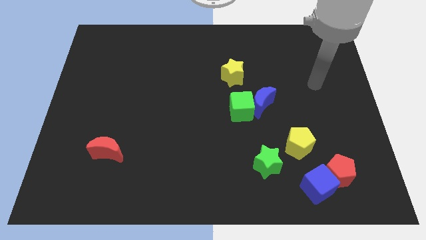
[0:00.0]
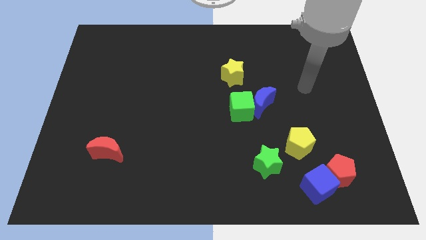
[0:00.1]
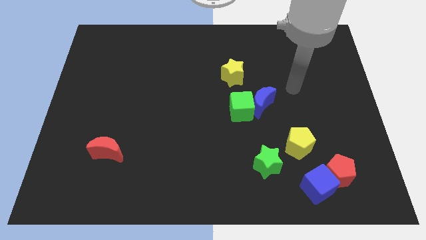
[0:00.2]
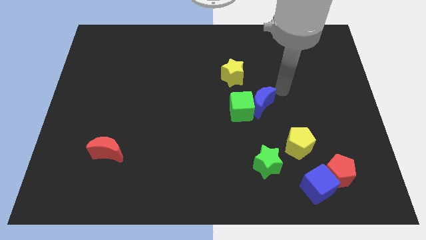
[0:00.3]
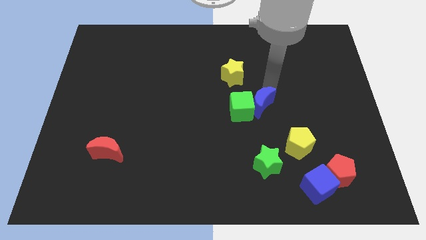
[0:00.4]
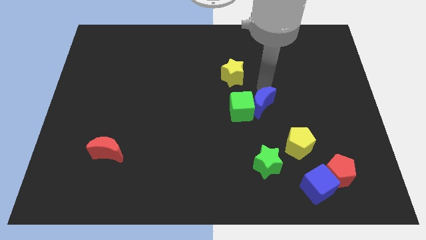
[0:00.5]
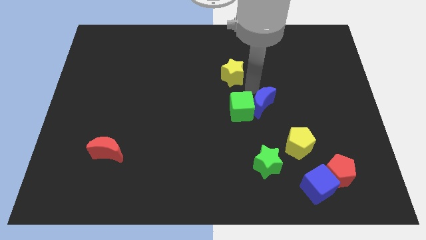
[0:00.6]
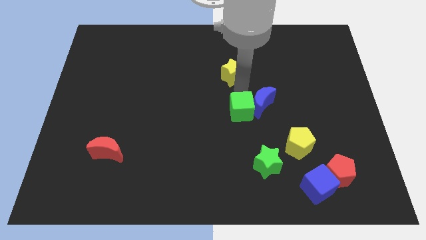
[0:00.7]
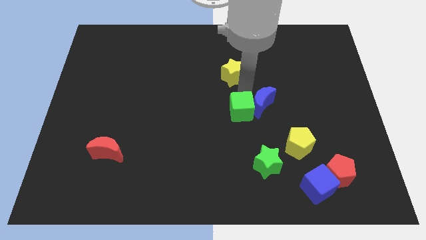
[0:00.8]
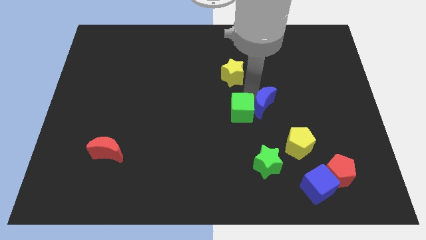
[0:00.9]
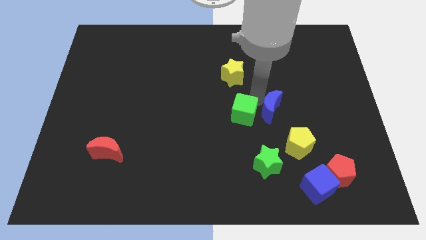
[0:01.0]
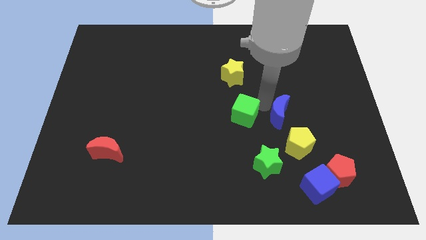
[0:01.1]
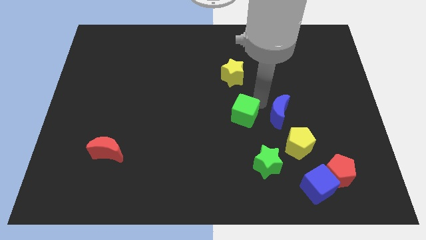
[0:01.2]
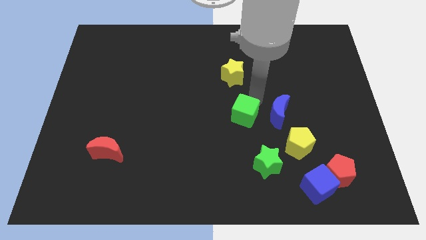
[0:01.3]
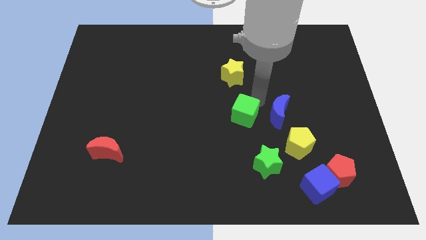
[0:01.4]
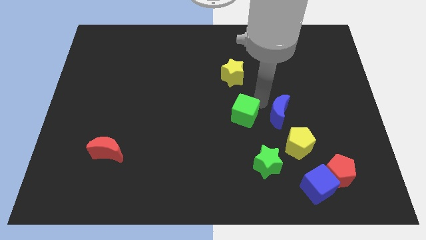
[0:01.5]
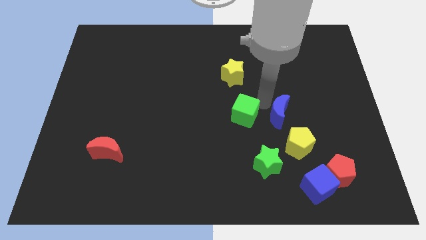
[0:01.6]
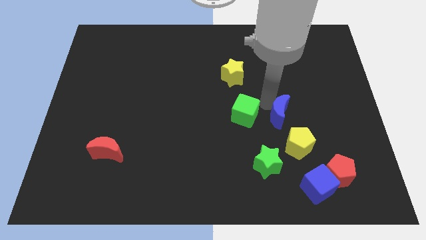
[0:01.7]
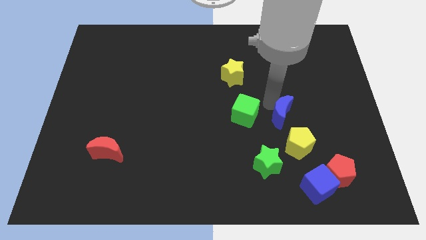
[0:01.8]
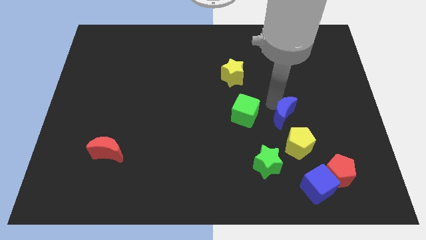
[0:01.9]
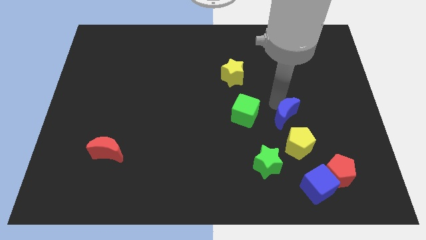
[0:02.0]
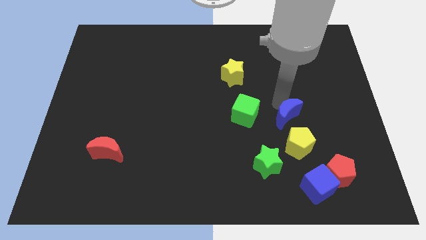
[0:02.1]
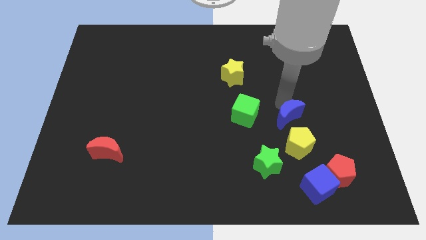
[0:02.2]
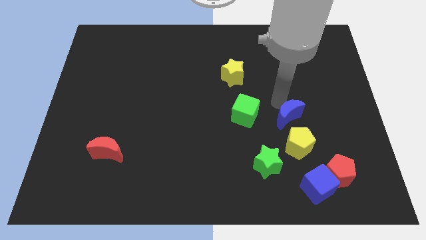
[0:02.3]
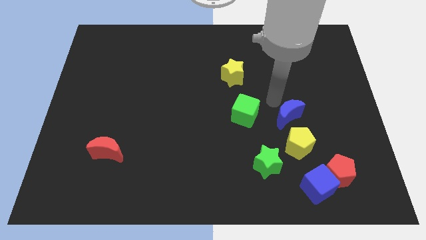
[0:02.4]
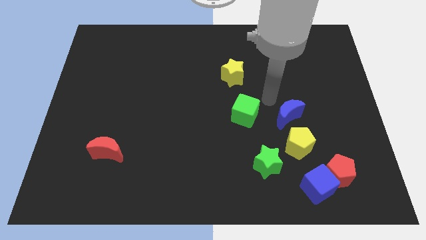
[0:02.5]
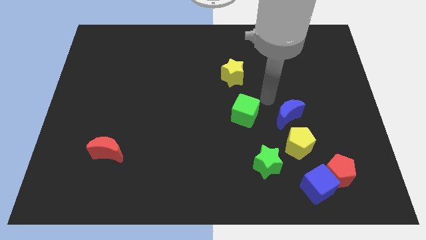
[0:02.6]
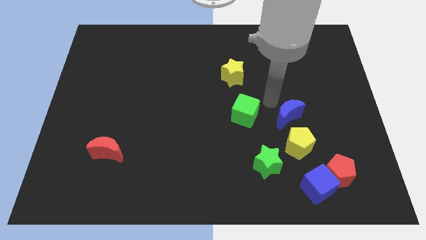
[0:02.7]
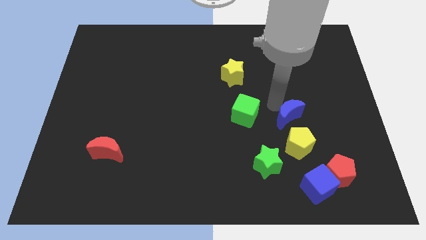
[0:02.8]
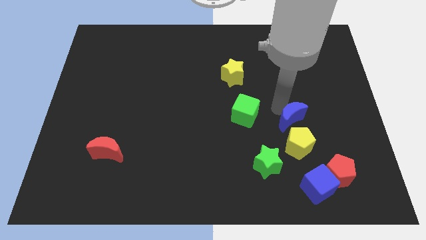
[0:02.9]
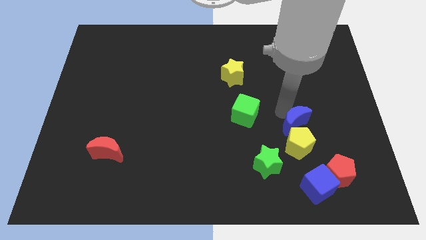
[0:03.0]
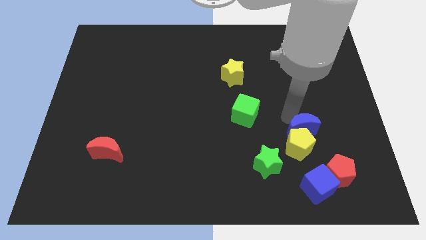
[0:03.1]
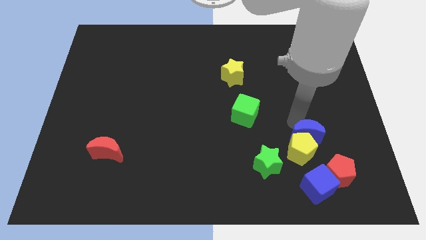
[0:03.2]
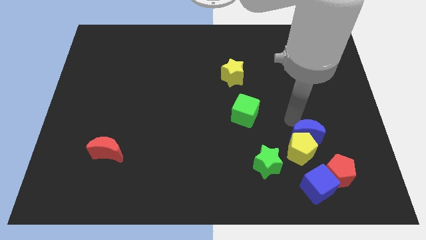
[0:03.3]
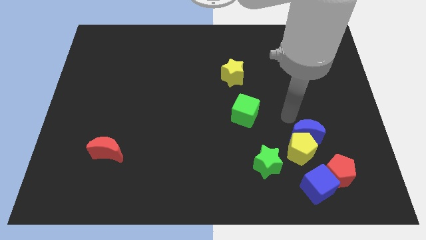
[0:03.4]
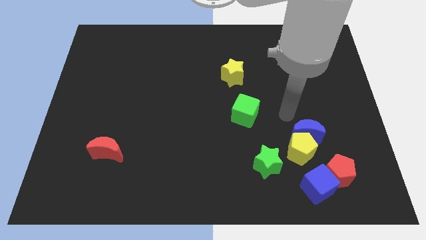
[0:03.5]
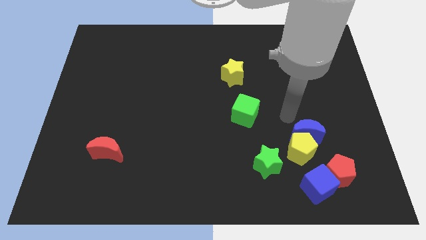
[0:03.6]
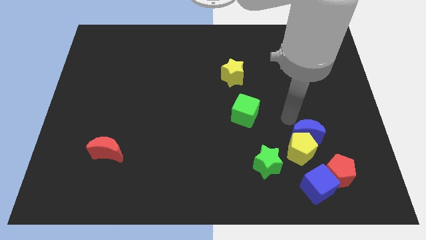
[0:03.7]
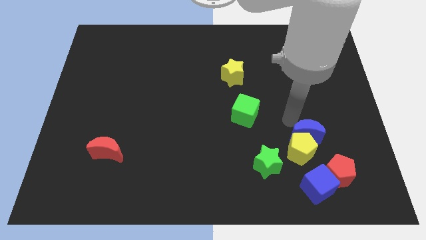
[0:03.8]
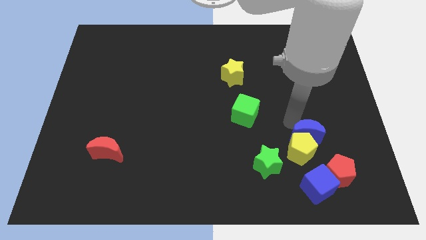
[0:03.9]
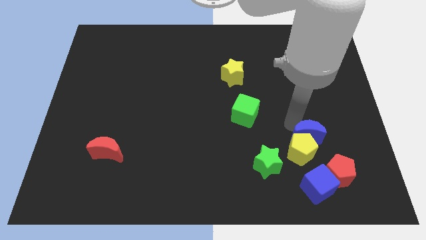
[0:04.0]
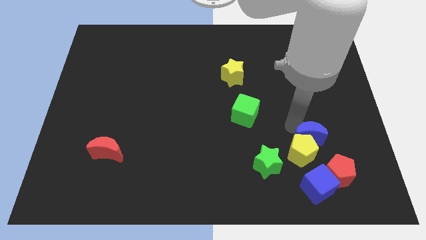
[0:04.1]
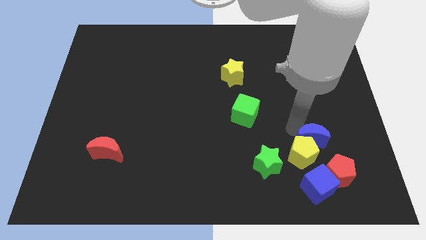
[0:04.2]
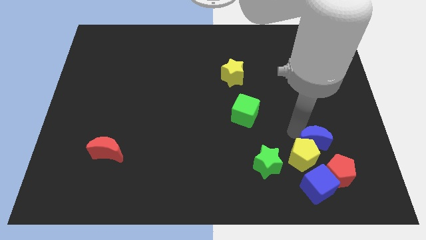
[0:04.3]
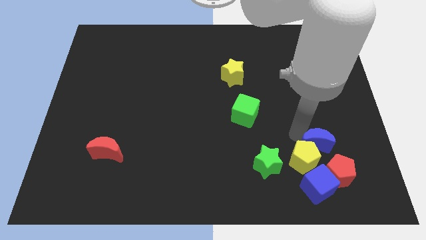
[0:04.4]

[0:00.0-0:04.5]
push the blue moon right of the green star

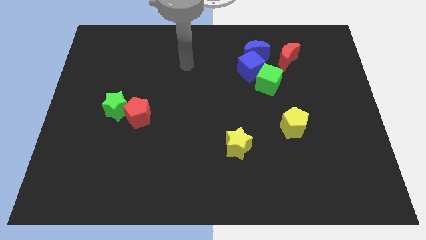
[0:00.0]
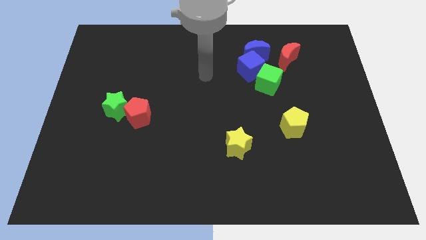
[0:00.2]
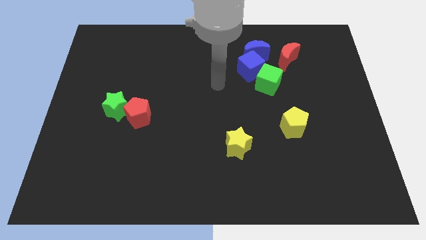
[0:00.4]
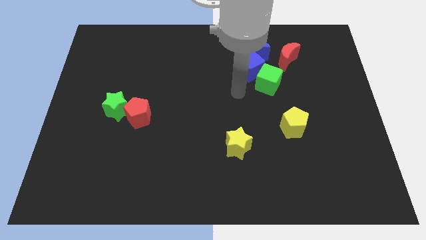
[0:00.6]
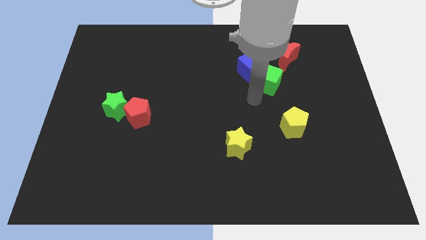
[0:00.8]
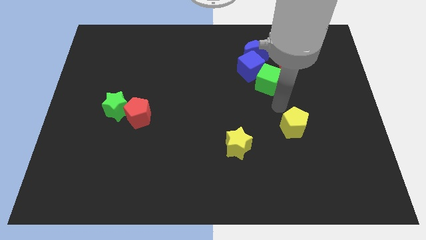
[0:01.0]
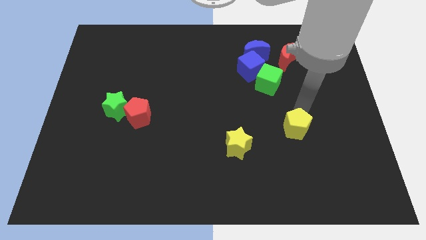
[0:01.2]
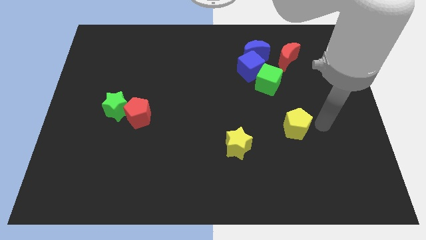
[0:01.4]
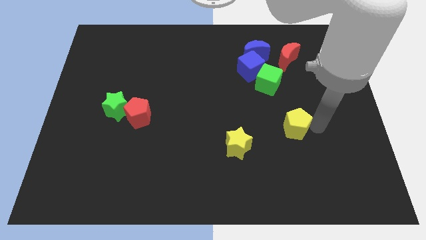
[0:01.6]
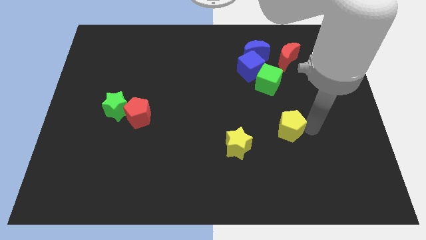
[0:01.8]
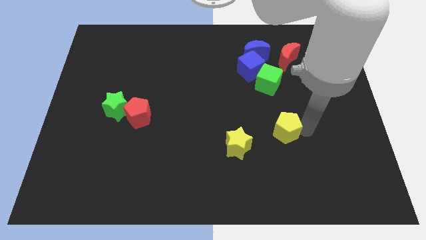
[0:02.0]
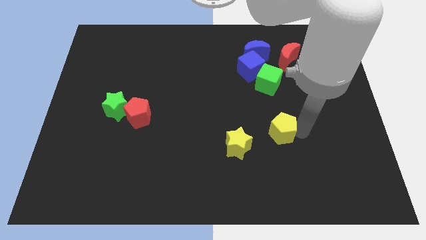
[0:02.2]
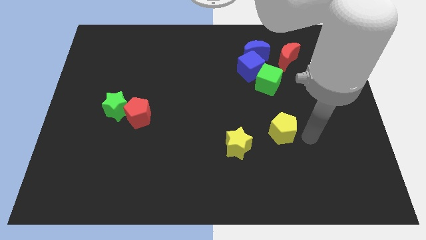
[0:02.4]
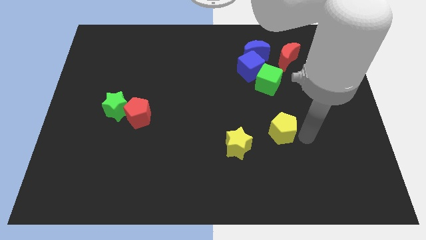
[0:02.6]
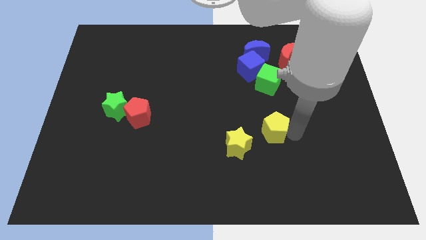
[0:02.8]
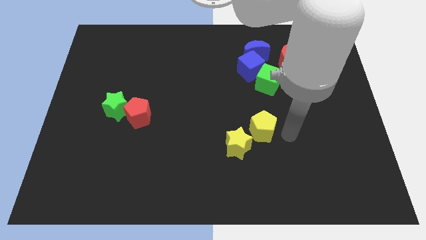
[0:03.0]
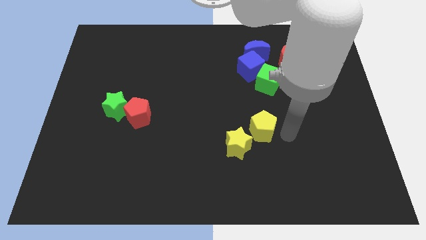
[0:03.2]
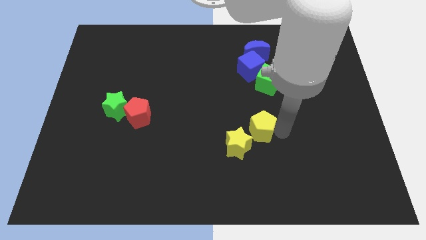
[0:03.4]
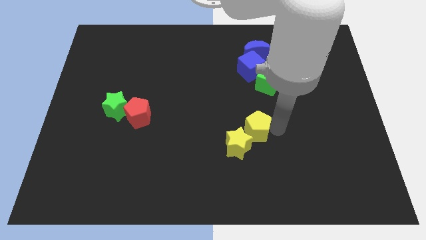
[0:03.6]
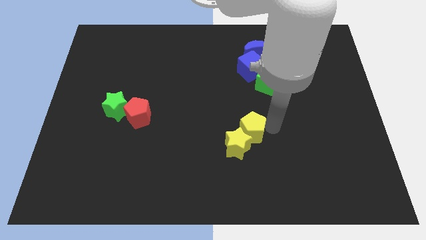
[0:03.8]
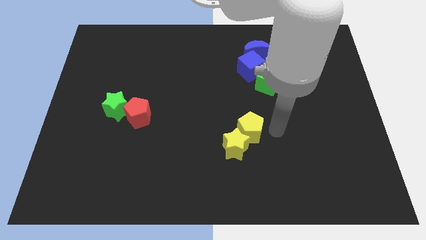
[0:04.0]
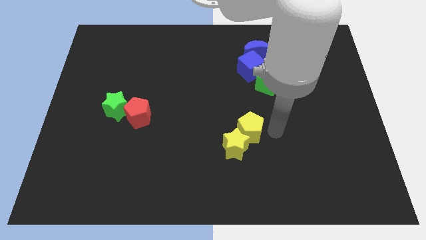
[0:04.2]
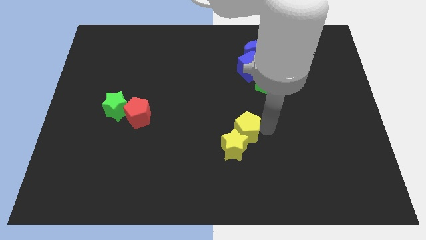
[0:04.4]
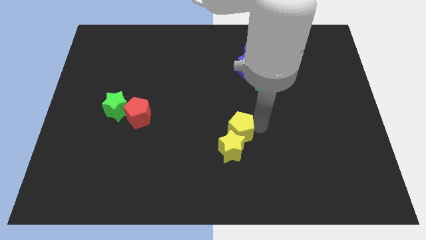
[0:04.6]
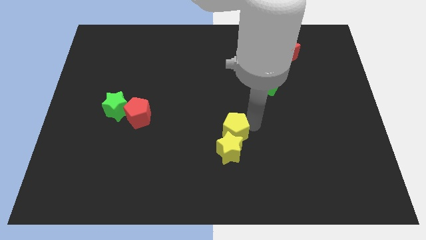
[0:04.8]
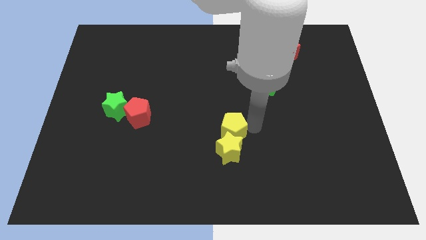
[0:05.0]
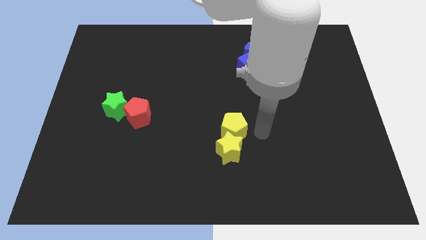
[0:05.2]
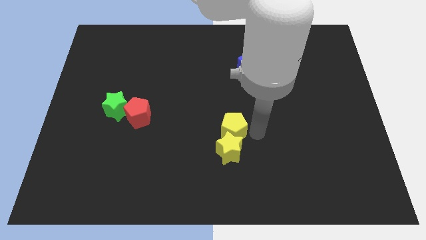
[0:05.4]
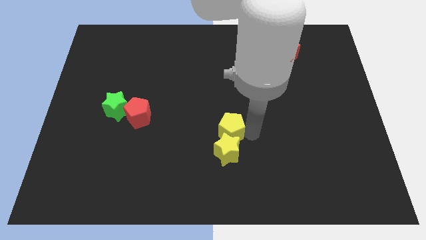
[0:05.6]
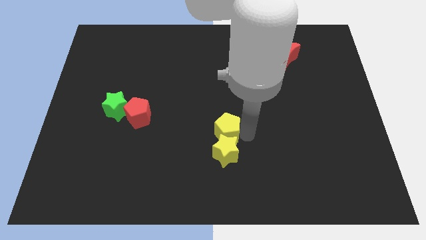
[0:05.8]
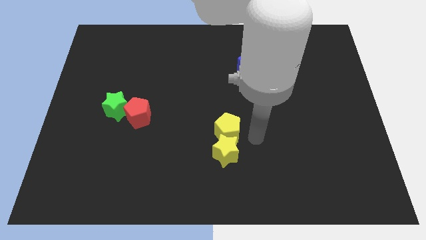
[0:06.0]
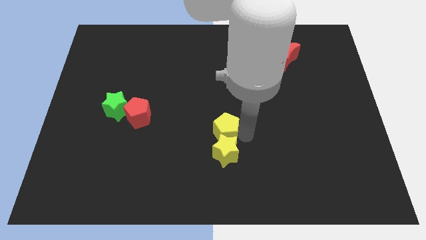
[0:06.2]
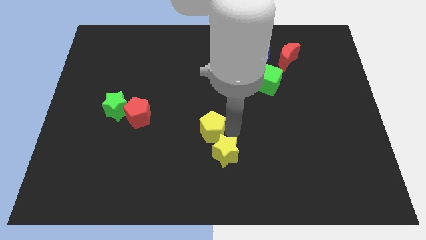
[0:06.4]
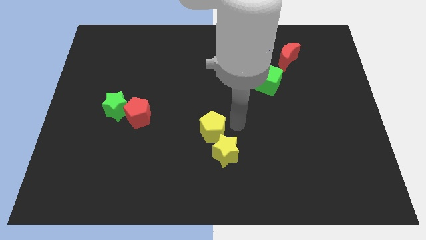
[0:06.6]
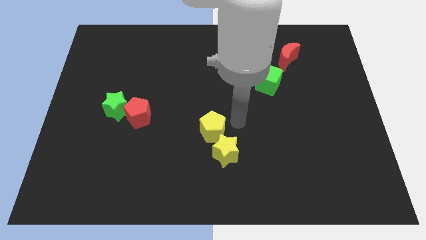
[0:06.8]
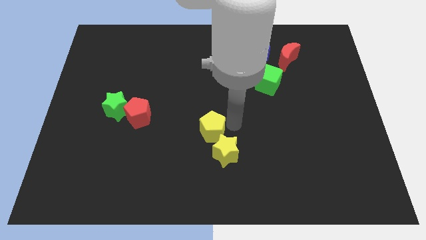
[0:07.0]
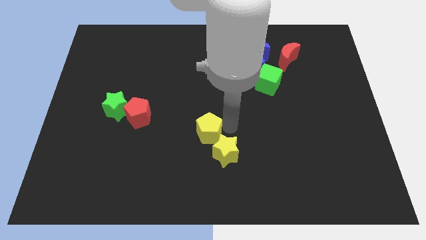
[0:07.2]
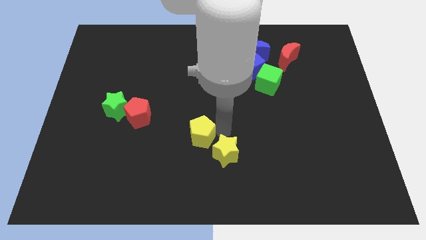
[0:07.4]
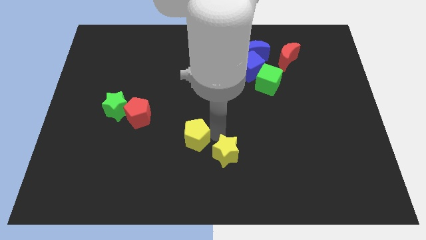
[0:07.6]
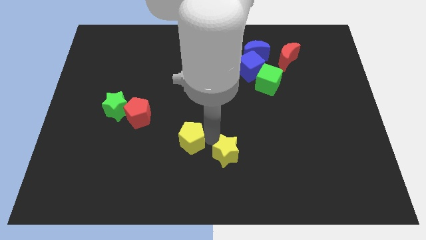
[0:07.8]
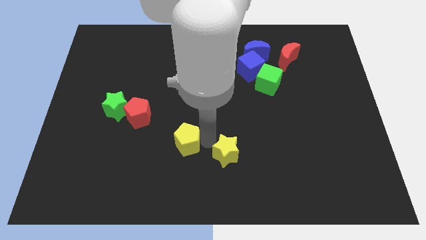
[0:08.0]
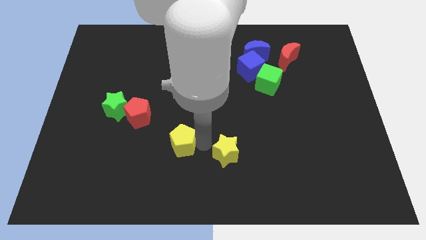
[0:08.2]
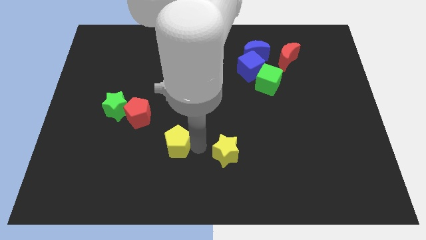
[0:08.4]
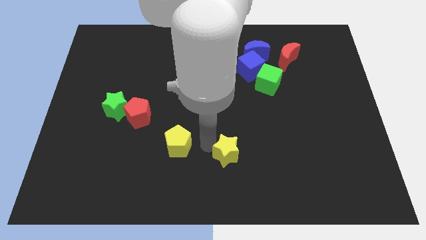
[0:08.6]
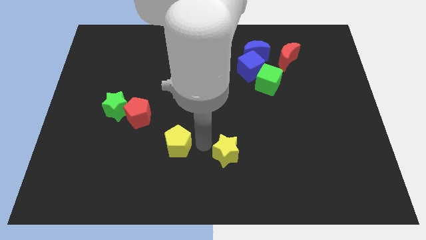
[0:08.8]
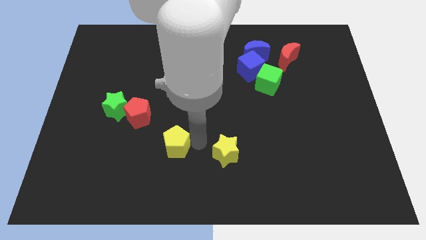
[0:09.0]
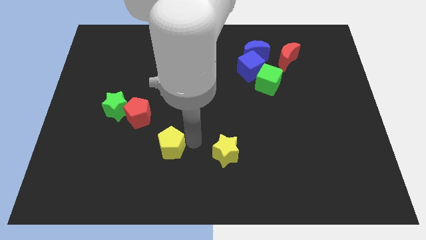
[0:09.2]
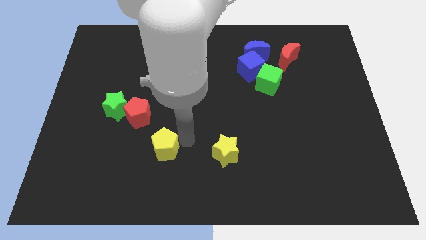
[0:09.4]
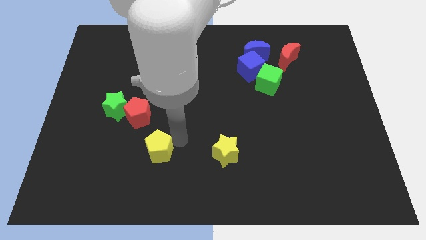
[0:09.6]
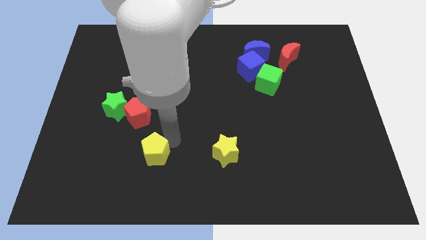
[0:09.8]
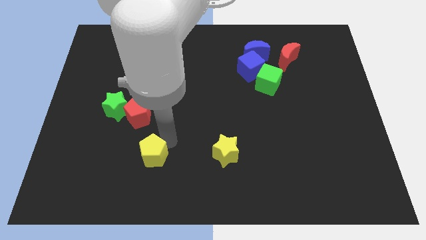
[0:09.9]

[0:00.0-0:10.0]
push the yellow pentagon to the bottom side of the red pentagon
